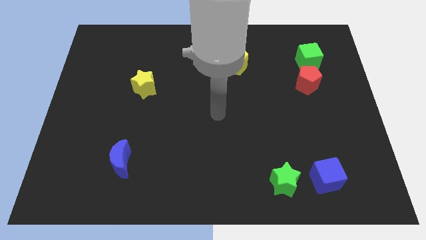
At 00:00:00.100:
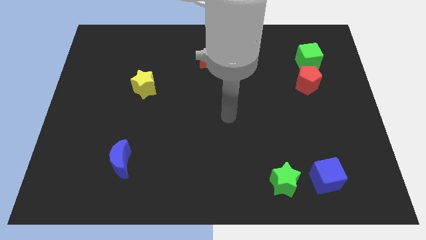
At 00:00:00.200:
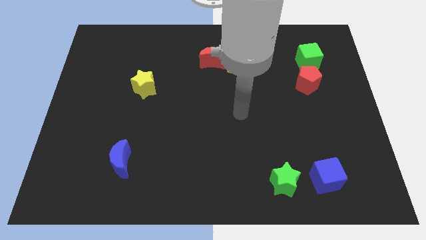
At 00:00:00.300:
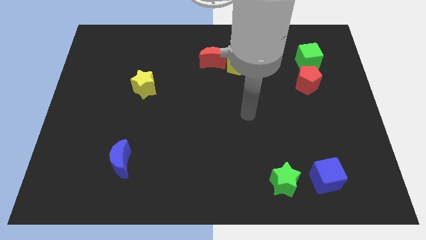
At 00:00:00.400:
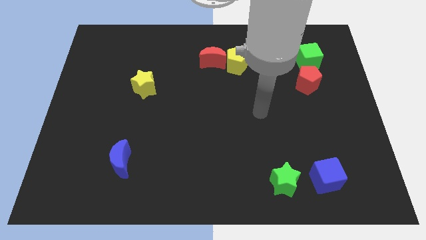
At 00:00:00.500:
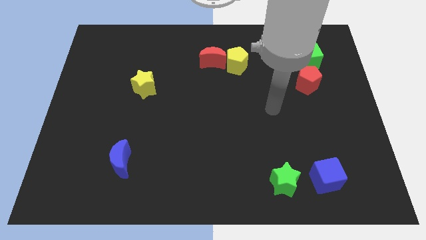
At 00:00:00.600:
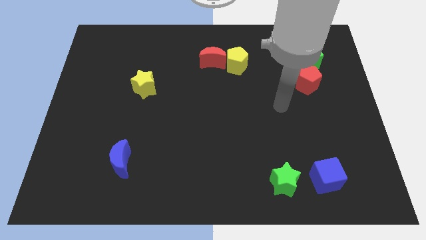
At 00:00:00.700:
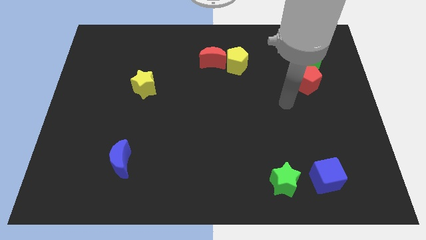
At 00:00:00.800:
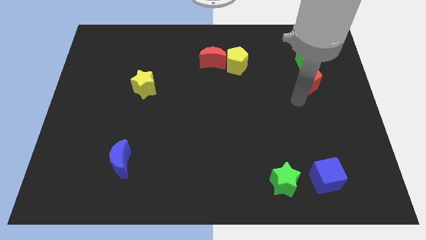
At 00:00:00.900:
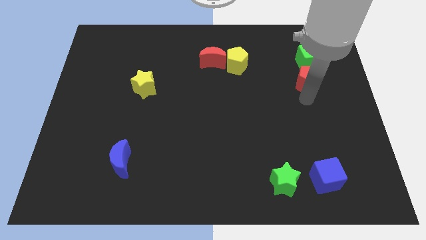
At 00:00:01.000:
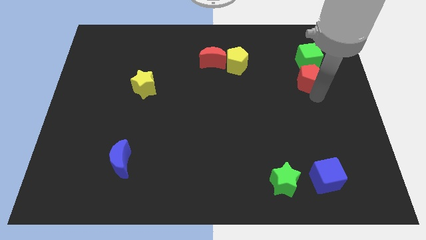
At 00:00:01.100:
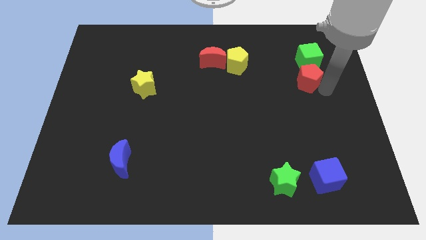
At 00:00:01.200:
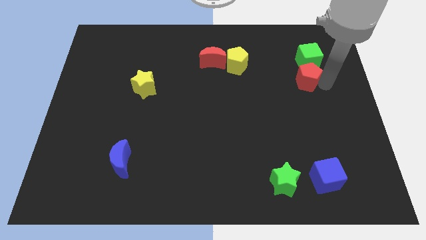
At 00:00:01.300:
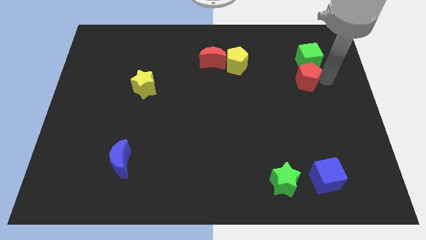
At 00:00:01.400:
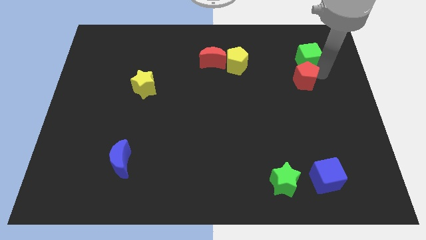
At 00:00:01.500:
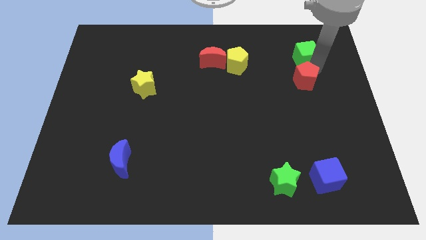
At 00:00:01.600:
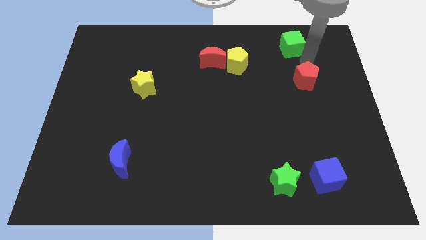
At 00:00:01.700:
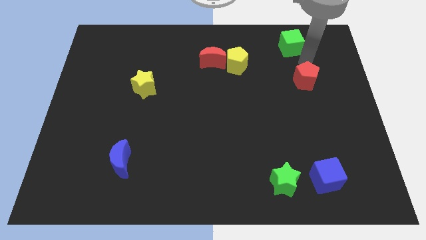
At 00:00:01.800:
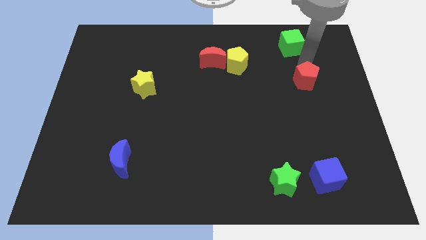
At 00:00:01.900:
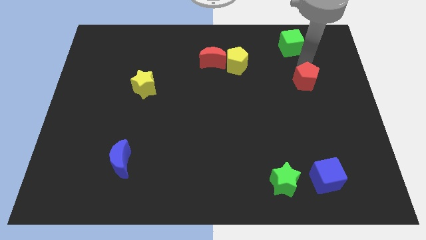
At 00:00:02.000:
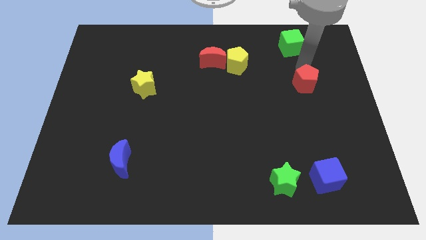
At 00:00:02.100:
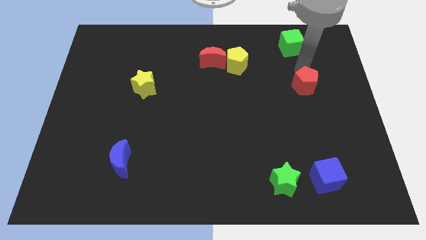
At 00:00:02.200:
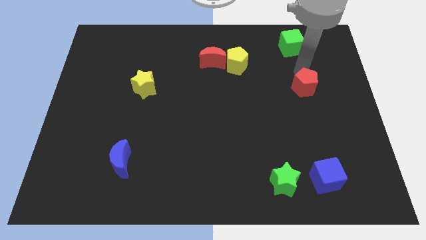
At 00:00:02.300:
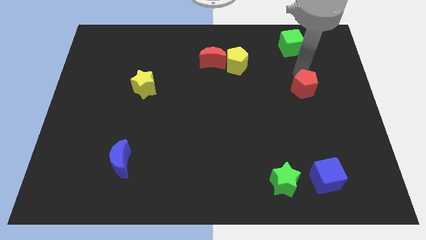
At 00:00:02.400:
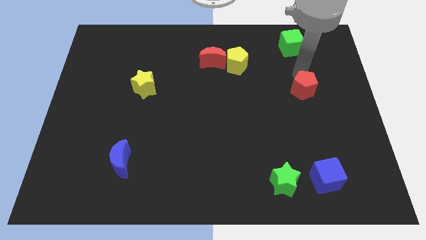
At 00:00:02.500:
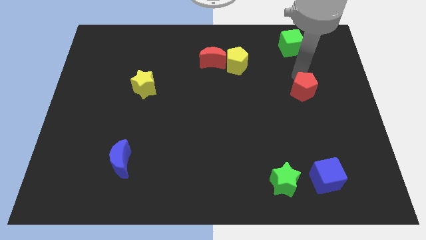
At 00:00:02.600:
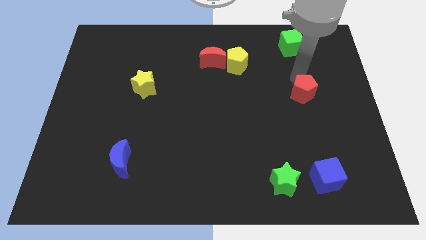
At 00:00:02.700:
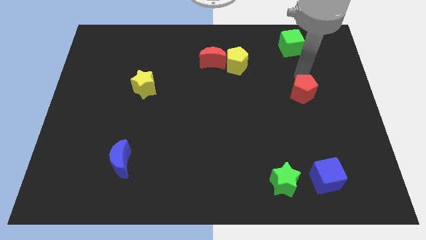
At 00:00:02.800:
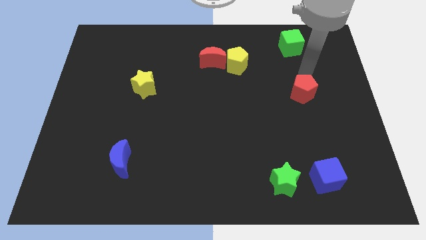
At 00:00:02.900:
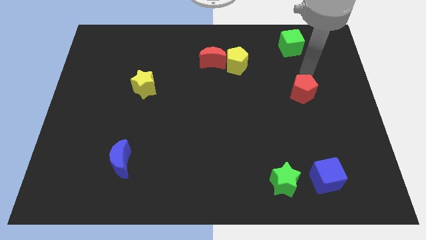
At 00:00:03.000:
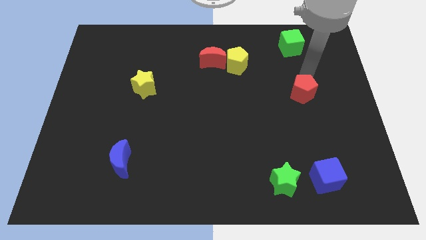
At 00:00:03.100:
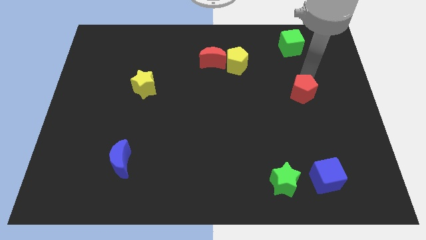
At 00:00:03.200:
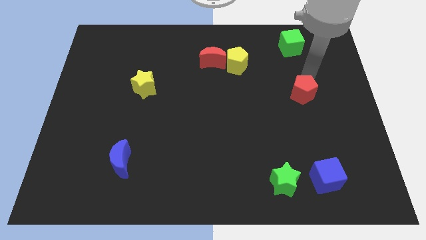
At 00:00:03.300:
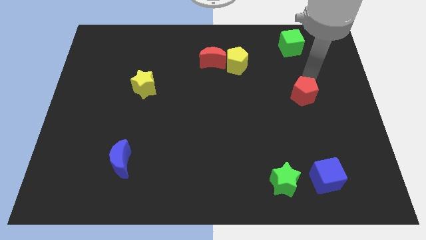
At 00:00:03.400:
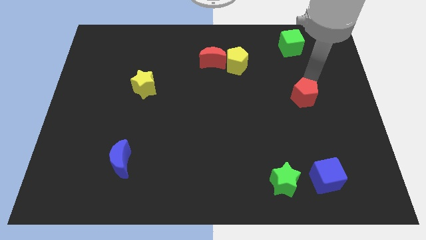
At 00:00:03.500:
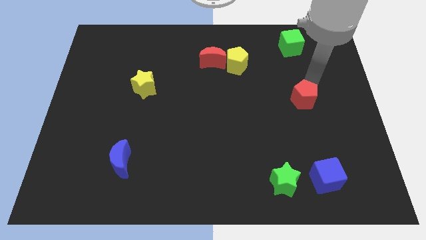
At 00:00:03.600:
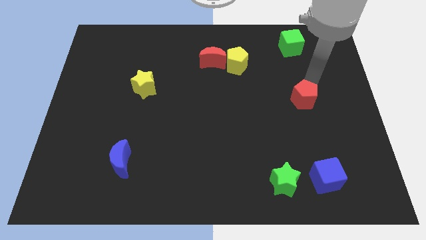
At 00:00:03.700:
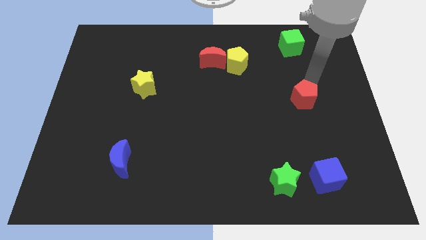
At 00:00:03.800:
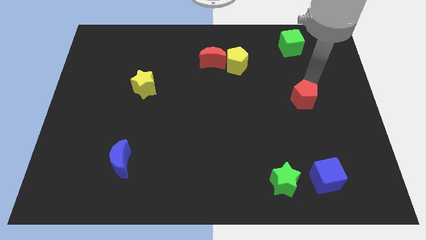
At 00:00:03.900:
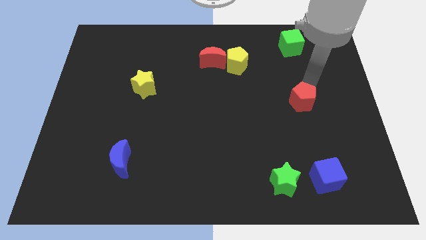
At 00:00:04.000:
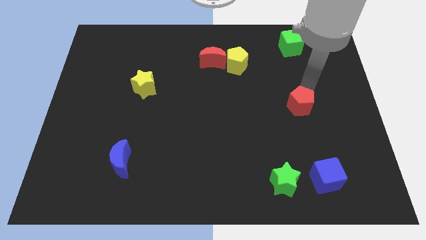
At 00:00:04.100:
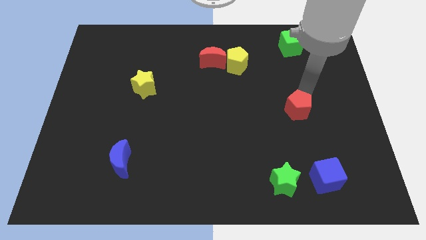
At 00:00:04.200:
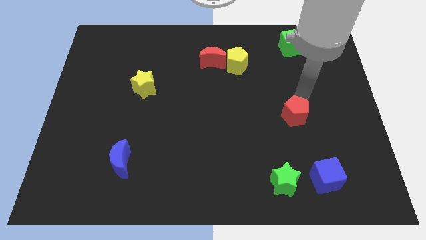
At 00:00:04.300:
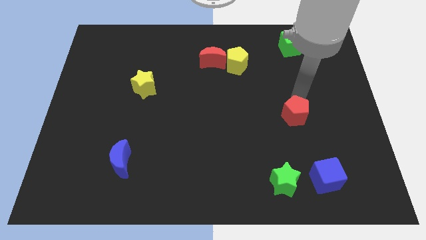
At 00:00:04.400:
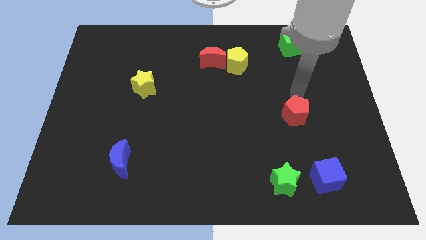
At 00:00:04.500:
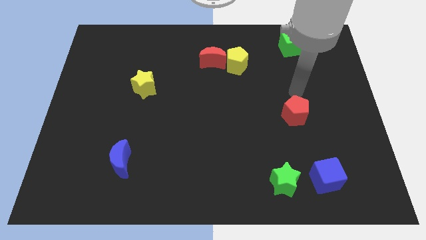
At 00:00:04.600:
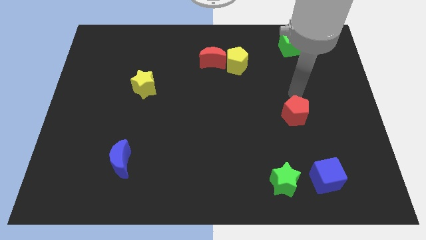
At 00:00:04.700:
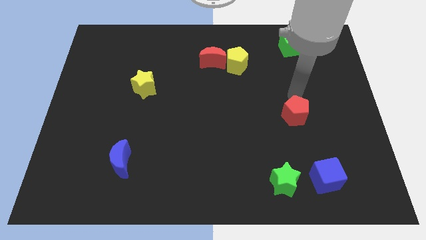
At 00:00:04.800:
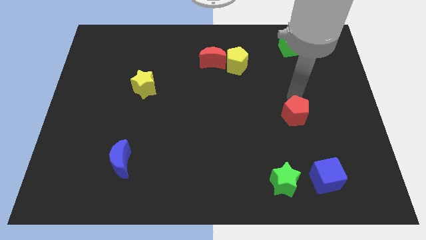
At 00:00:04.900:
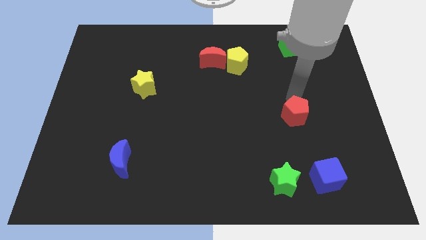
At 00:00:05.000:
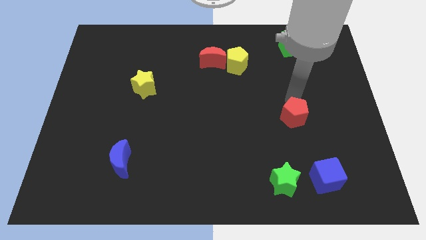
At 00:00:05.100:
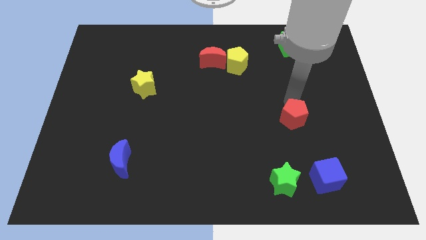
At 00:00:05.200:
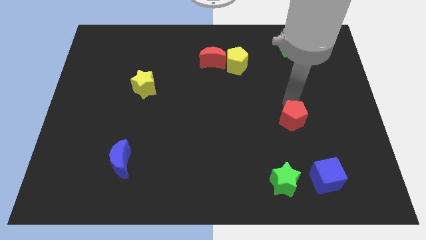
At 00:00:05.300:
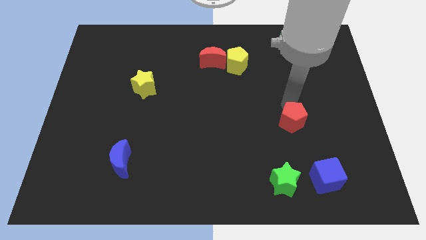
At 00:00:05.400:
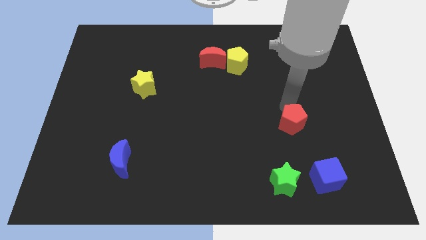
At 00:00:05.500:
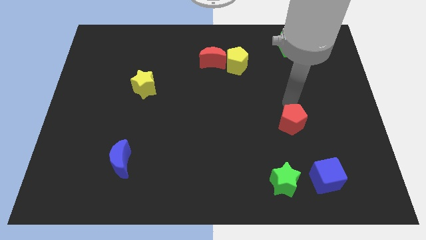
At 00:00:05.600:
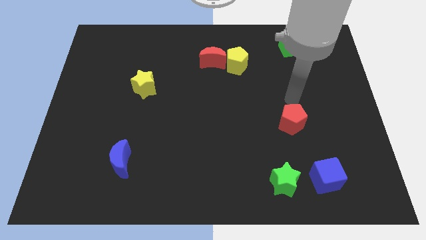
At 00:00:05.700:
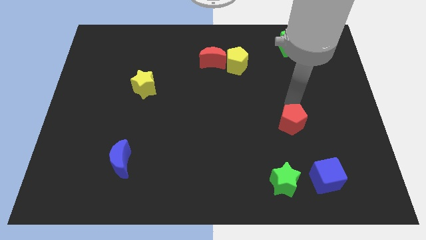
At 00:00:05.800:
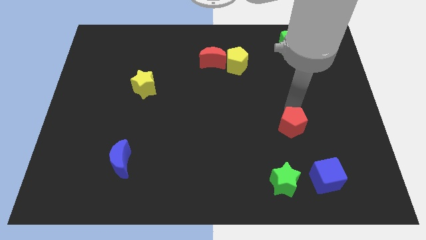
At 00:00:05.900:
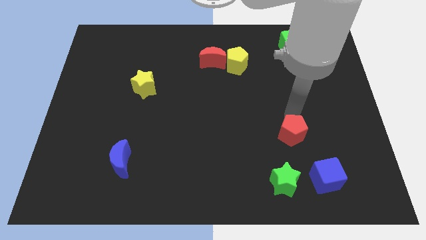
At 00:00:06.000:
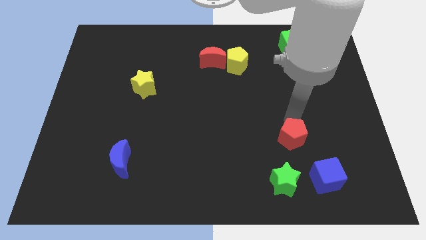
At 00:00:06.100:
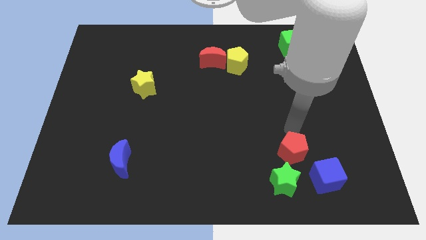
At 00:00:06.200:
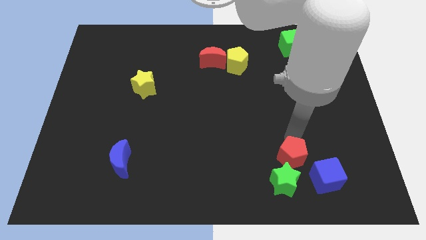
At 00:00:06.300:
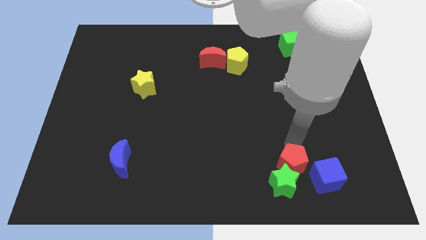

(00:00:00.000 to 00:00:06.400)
push the red pentagon close to the green star

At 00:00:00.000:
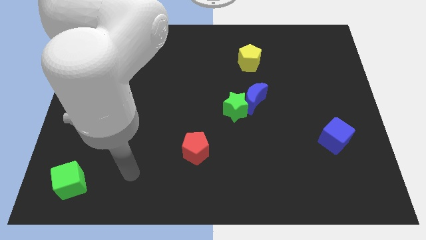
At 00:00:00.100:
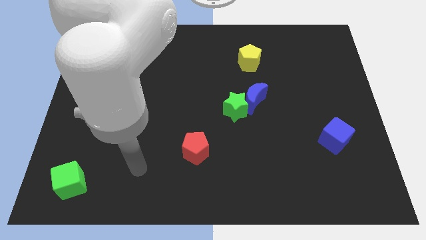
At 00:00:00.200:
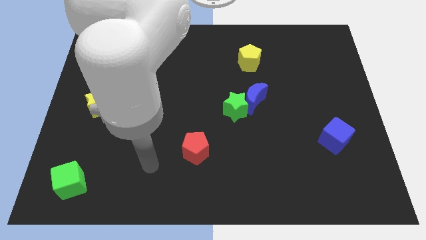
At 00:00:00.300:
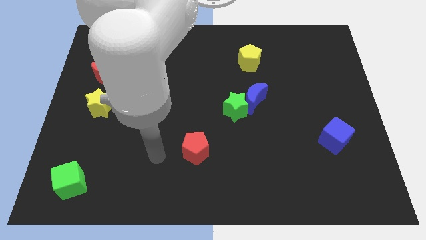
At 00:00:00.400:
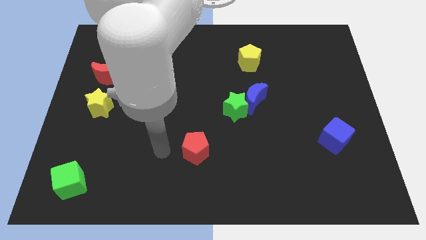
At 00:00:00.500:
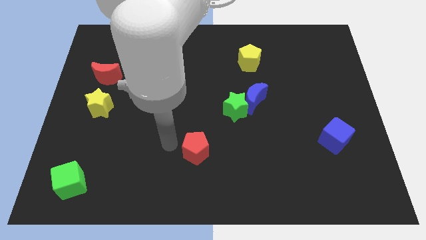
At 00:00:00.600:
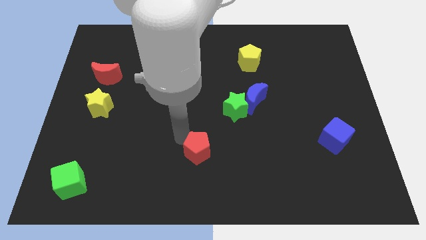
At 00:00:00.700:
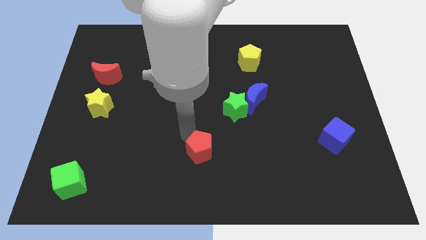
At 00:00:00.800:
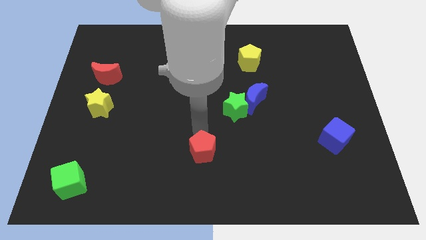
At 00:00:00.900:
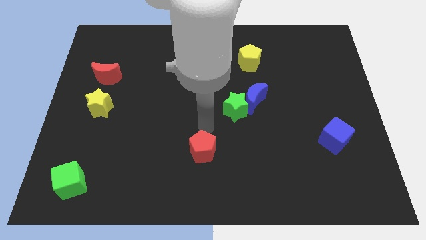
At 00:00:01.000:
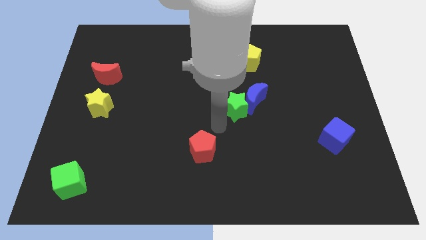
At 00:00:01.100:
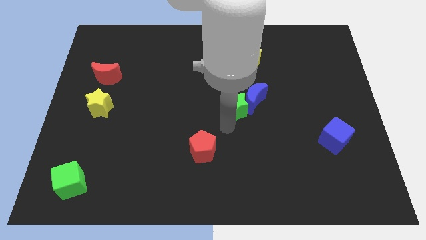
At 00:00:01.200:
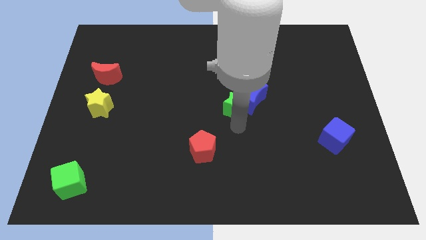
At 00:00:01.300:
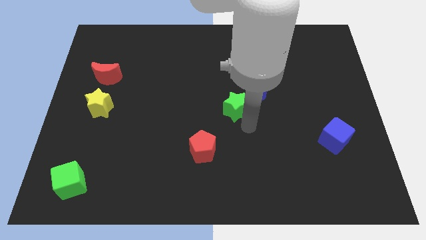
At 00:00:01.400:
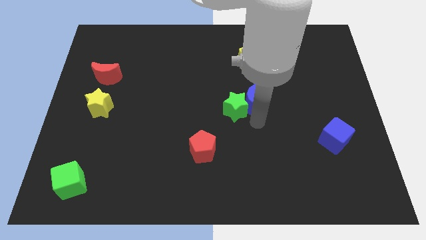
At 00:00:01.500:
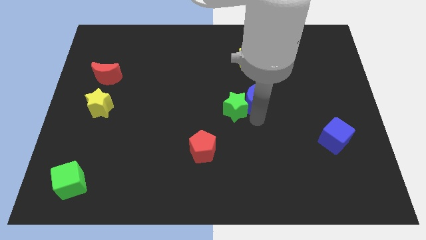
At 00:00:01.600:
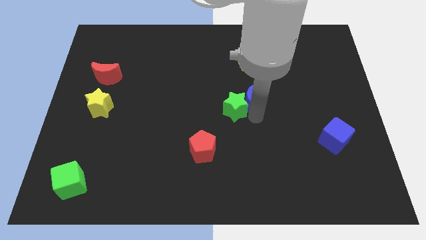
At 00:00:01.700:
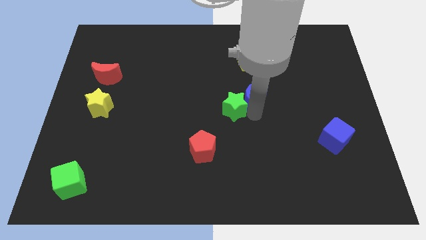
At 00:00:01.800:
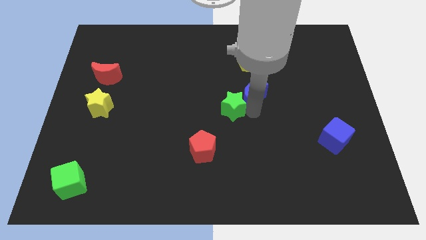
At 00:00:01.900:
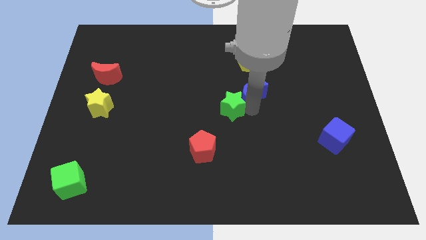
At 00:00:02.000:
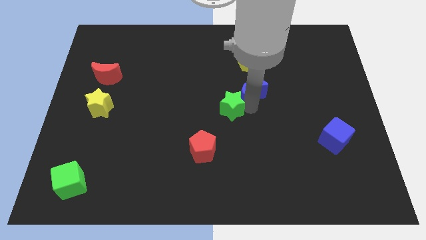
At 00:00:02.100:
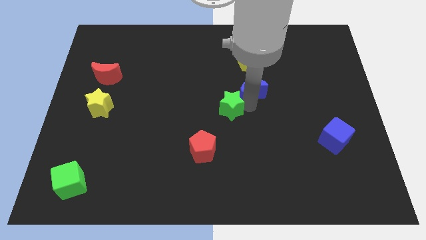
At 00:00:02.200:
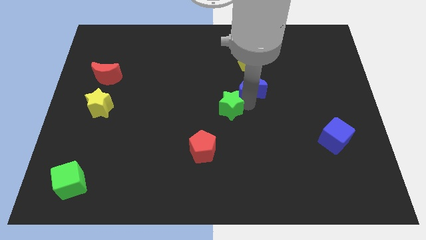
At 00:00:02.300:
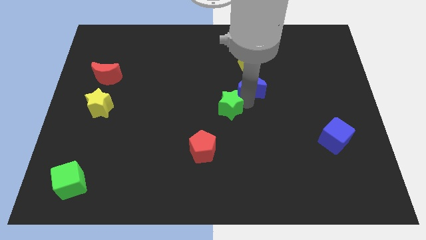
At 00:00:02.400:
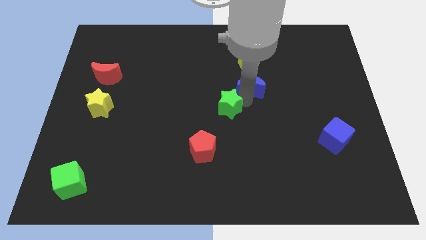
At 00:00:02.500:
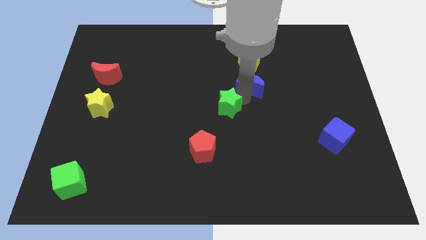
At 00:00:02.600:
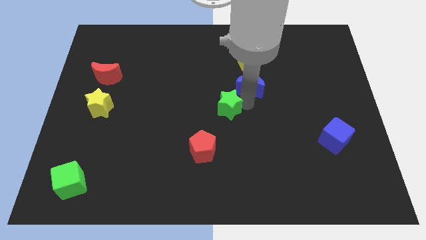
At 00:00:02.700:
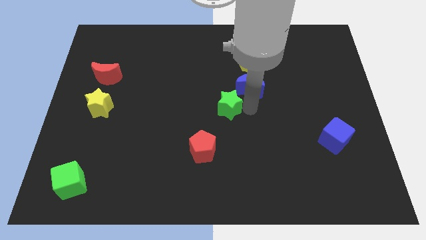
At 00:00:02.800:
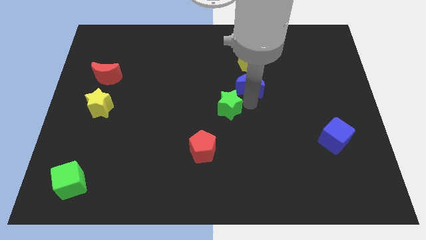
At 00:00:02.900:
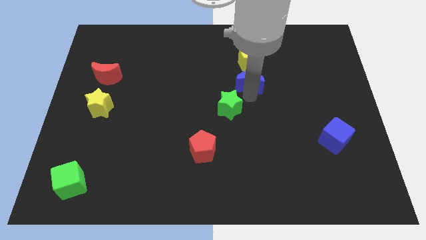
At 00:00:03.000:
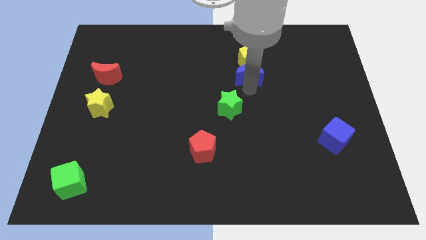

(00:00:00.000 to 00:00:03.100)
put the blue moon close to the yellow pentagon
